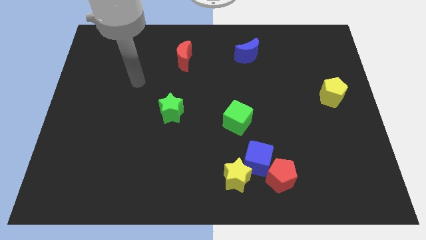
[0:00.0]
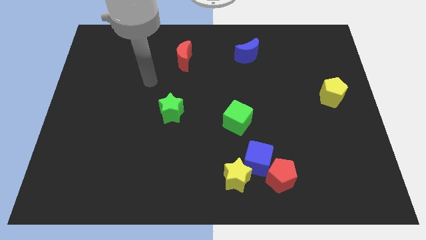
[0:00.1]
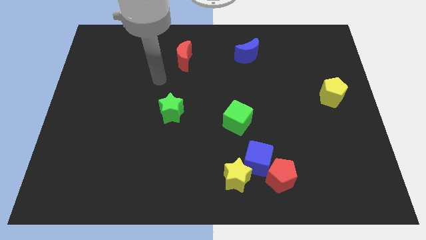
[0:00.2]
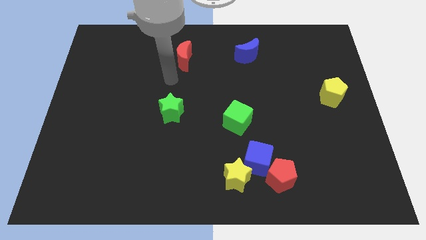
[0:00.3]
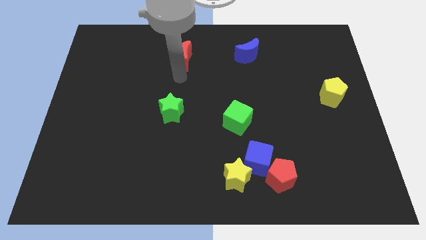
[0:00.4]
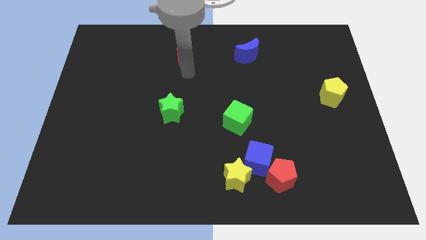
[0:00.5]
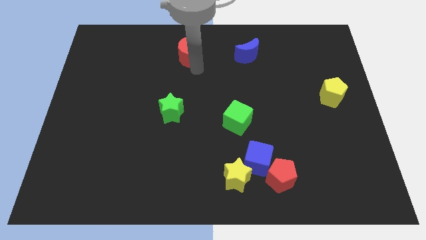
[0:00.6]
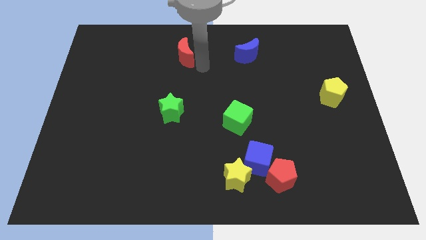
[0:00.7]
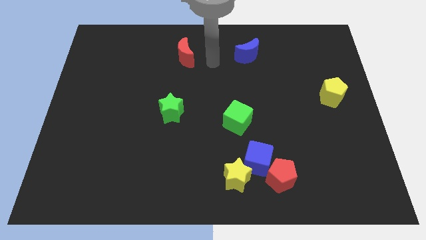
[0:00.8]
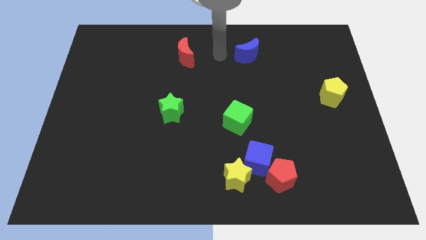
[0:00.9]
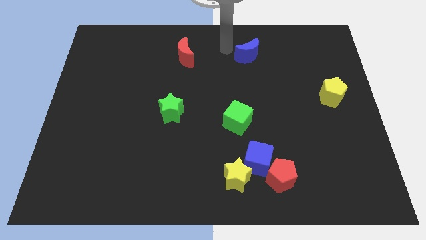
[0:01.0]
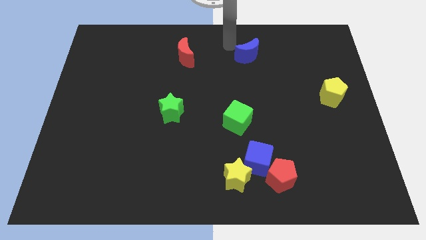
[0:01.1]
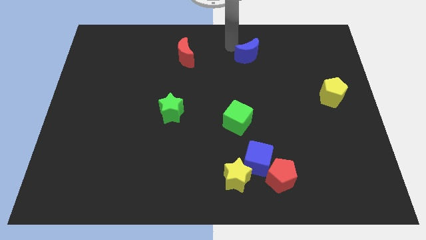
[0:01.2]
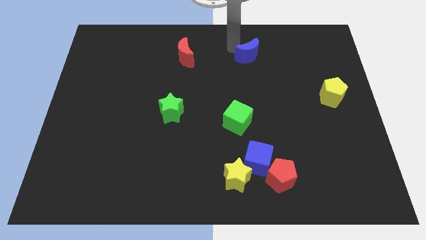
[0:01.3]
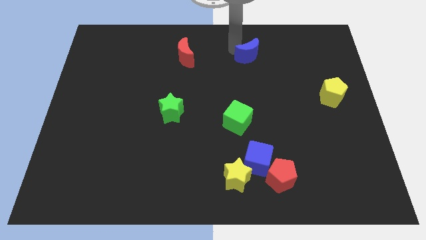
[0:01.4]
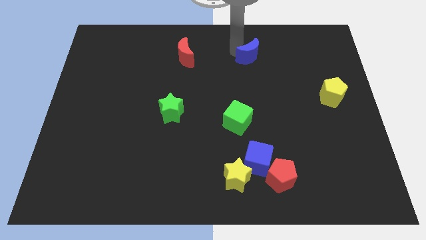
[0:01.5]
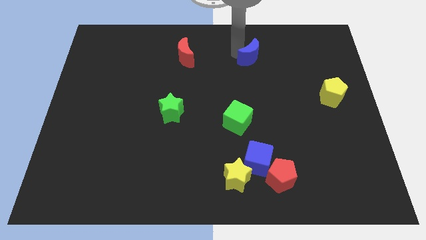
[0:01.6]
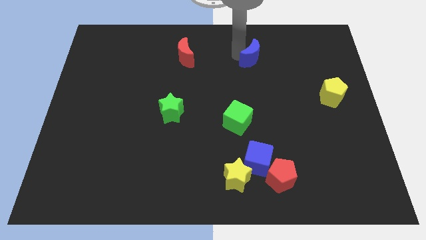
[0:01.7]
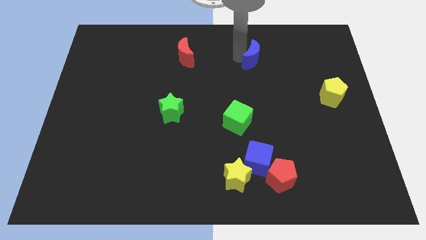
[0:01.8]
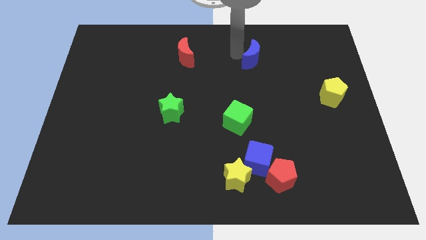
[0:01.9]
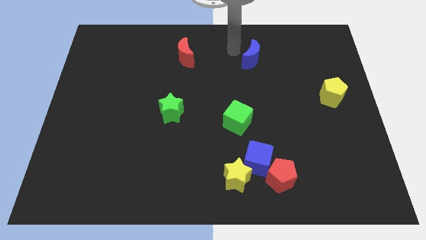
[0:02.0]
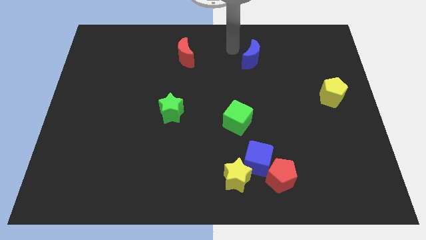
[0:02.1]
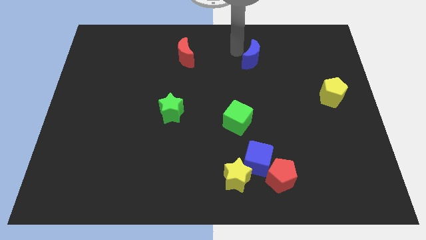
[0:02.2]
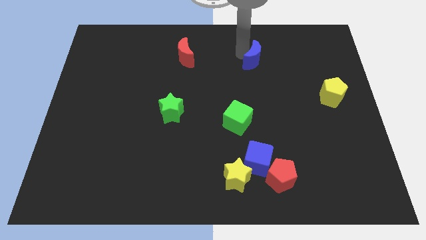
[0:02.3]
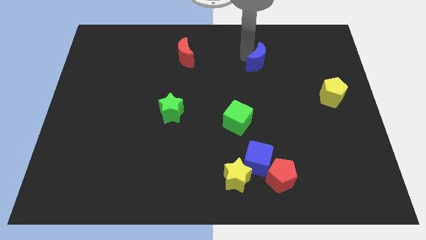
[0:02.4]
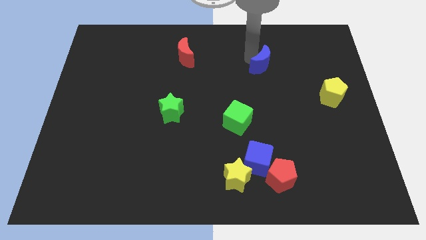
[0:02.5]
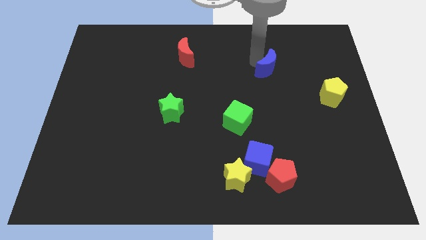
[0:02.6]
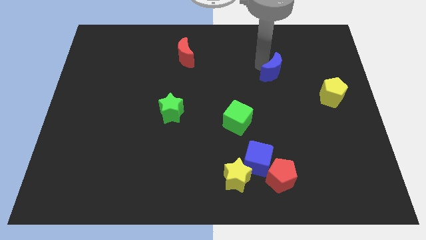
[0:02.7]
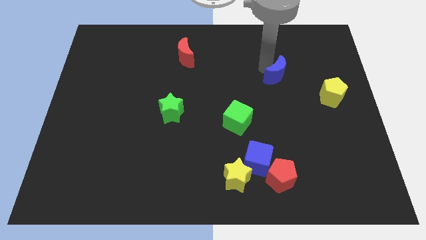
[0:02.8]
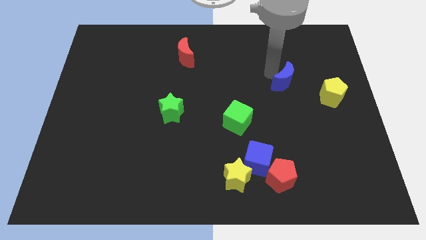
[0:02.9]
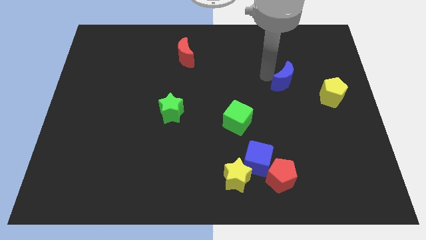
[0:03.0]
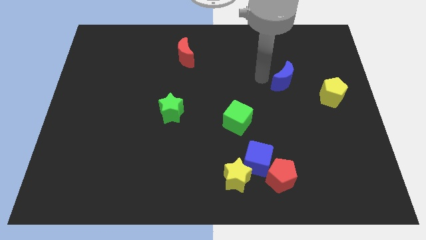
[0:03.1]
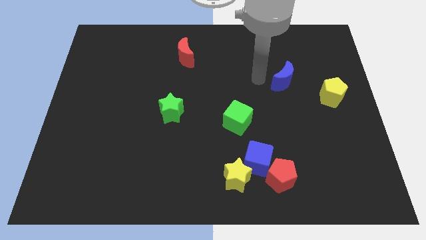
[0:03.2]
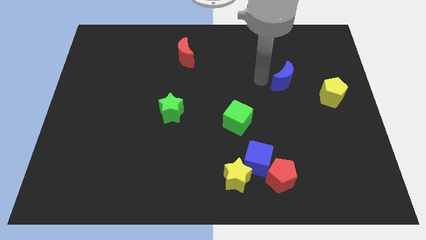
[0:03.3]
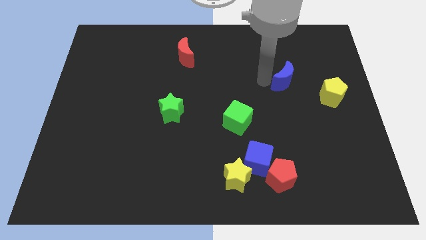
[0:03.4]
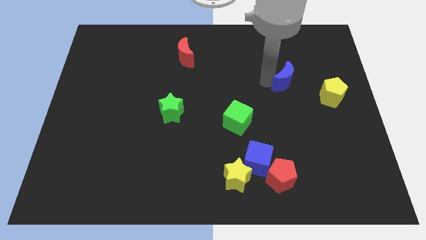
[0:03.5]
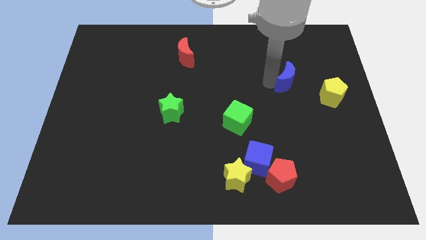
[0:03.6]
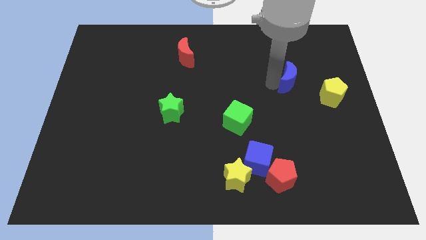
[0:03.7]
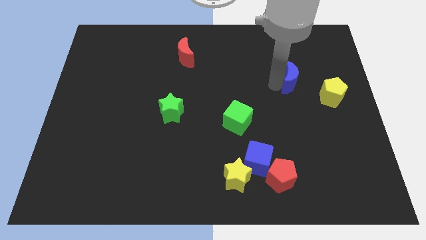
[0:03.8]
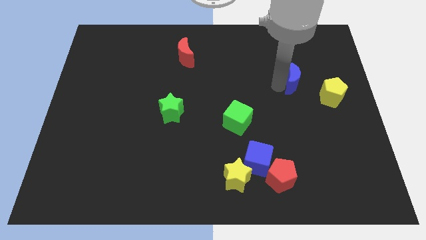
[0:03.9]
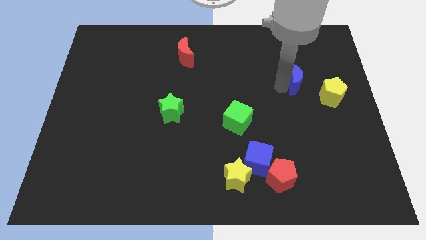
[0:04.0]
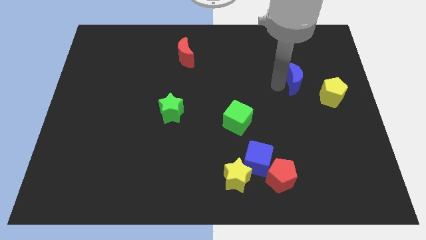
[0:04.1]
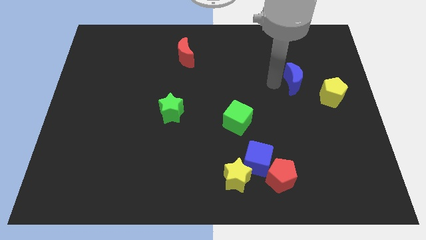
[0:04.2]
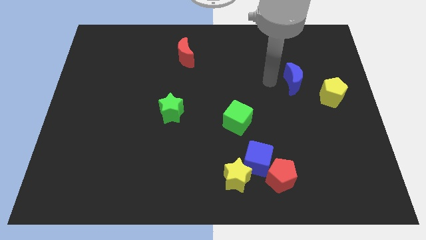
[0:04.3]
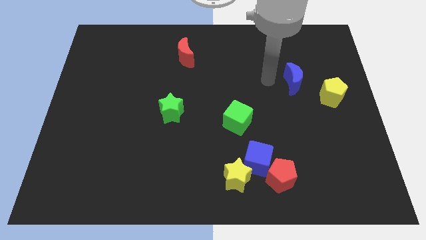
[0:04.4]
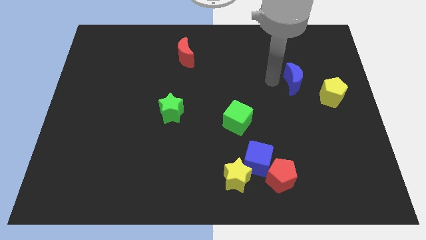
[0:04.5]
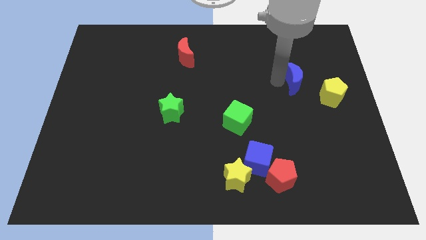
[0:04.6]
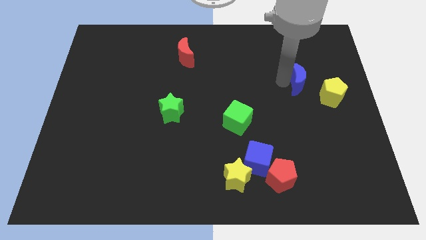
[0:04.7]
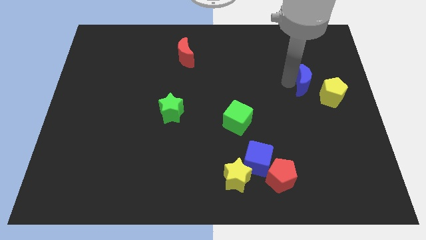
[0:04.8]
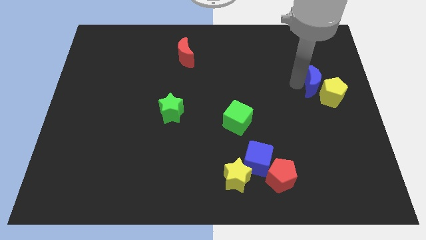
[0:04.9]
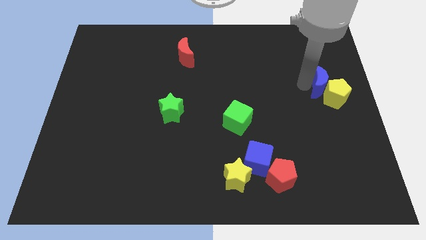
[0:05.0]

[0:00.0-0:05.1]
slide the blue moon to the right side

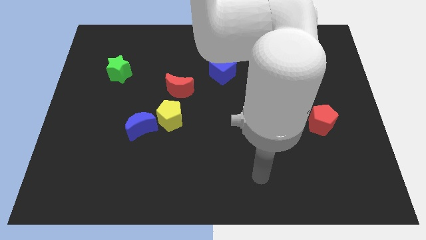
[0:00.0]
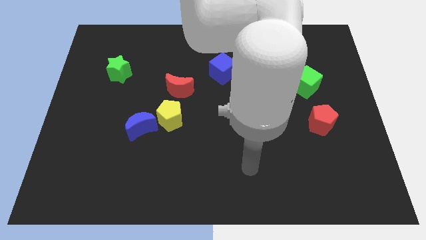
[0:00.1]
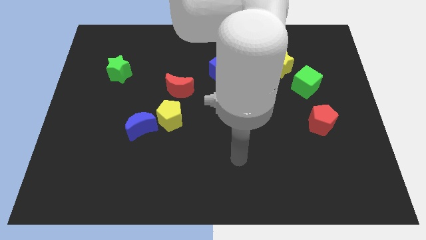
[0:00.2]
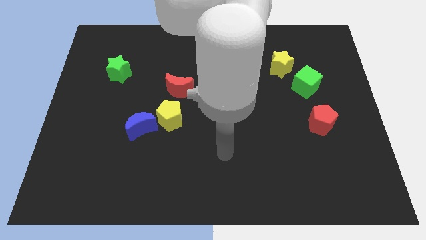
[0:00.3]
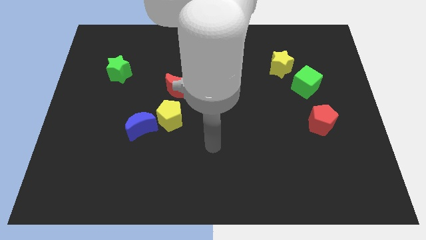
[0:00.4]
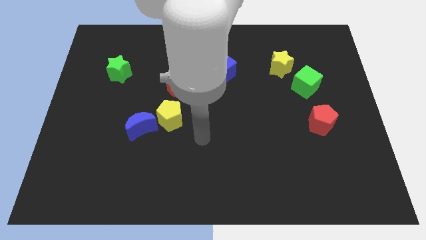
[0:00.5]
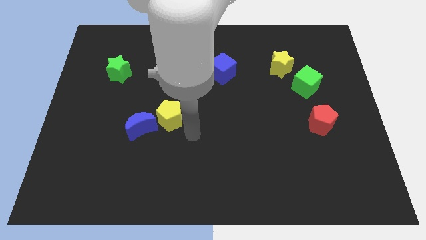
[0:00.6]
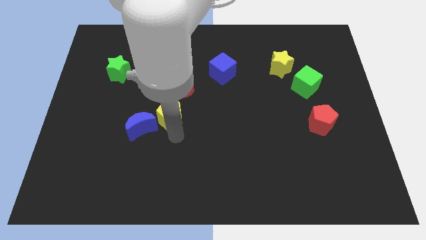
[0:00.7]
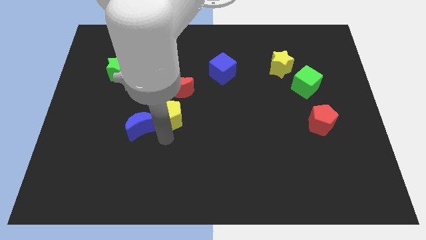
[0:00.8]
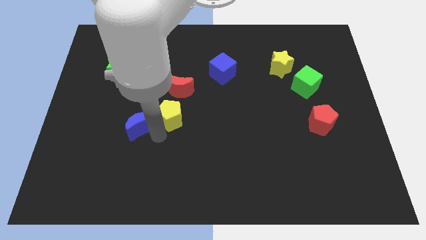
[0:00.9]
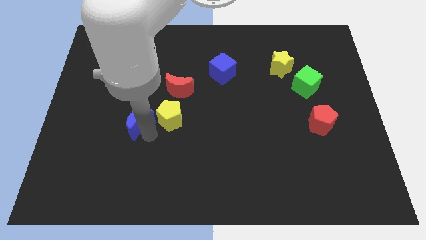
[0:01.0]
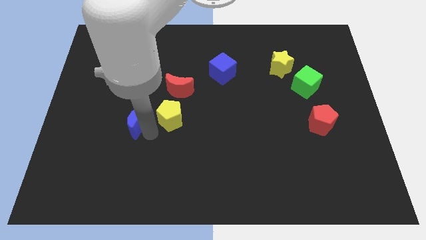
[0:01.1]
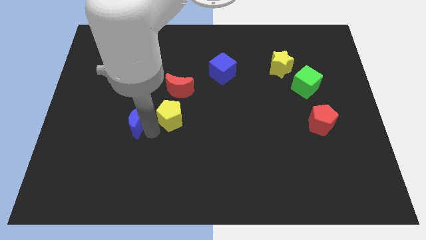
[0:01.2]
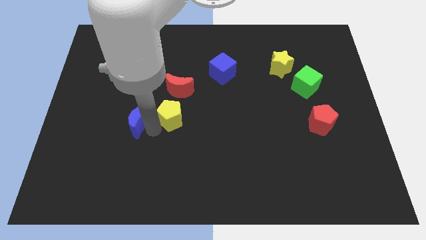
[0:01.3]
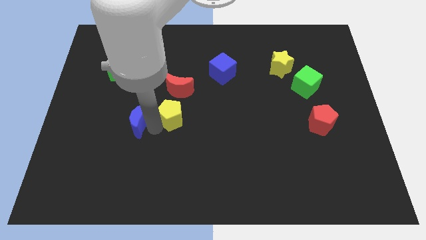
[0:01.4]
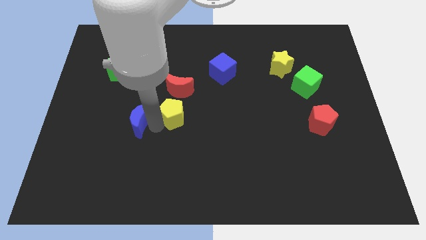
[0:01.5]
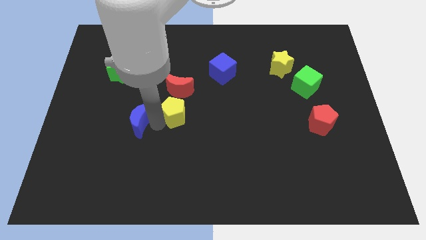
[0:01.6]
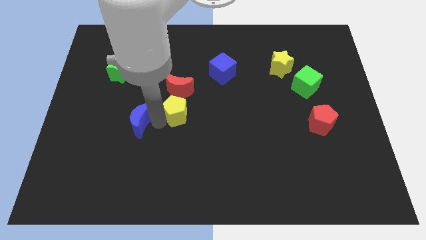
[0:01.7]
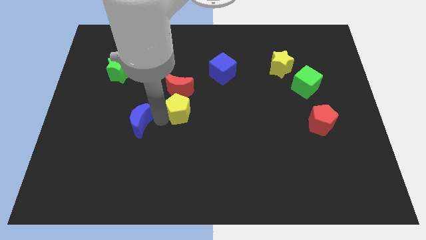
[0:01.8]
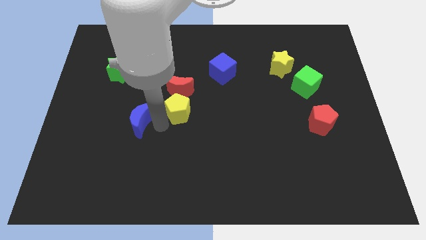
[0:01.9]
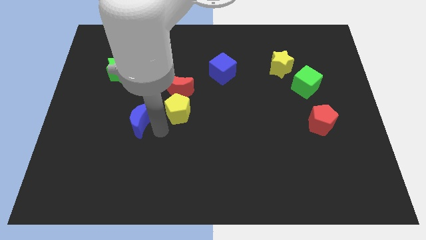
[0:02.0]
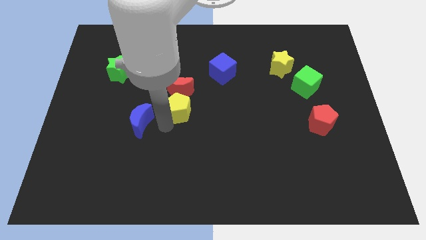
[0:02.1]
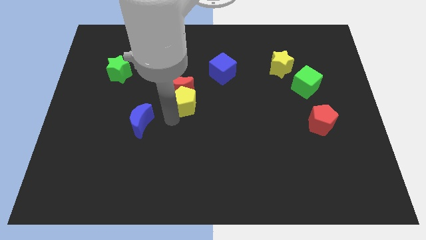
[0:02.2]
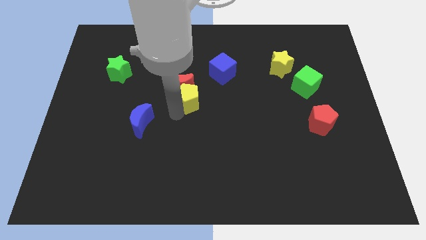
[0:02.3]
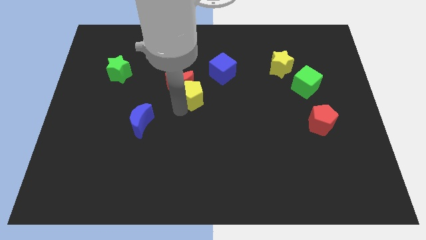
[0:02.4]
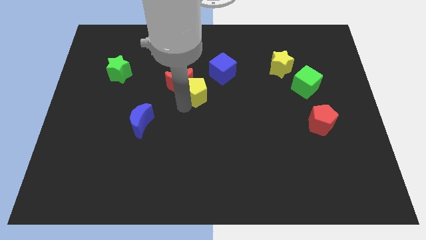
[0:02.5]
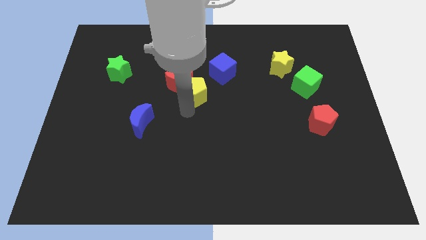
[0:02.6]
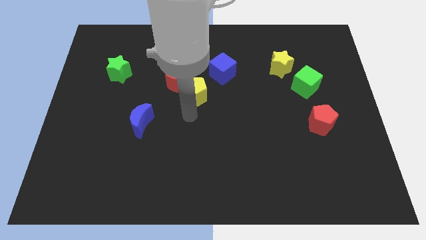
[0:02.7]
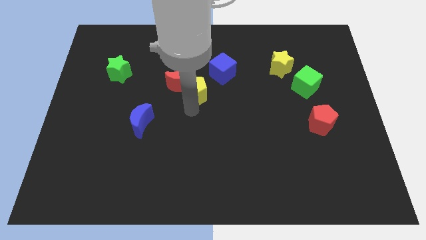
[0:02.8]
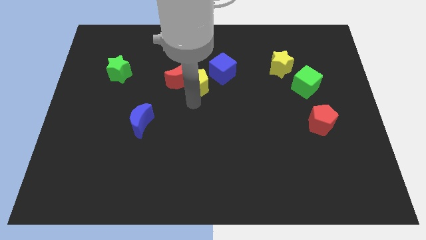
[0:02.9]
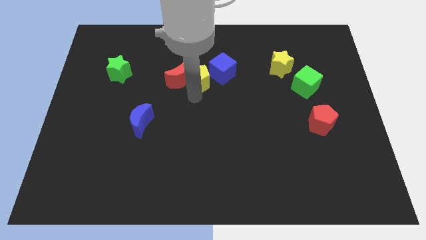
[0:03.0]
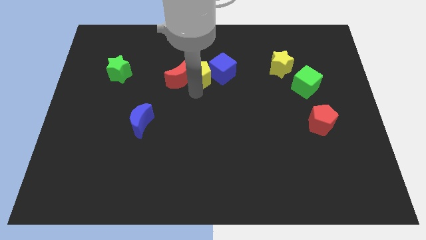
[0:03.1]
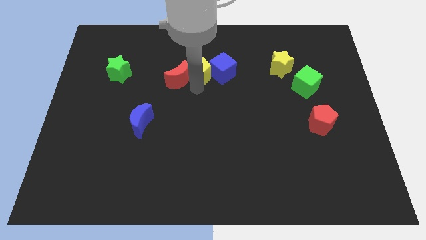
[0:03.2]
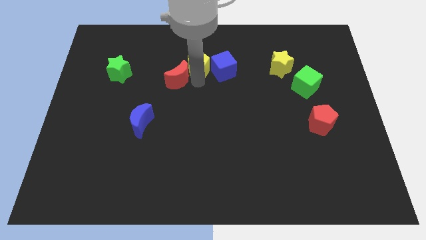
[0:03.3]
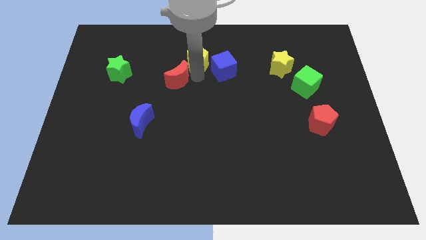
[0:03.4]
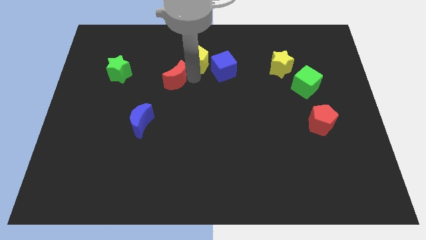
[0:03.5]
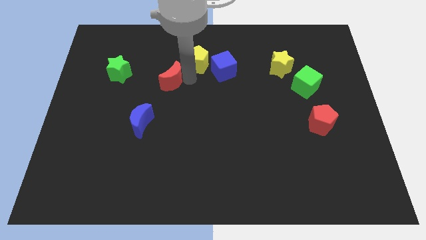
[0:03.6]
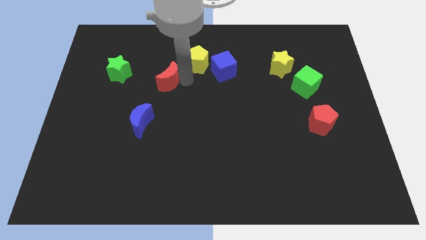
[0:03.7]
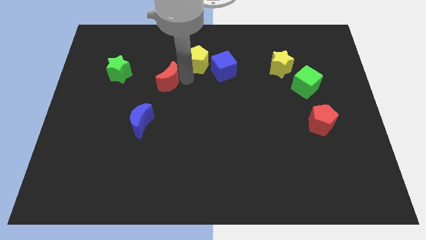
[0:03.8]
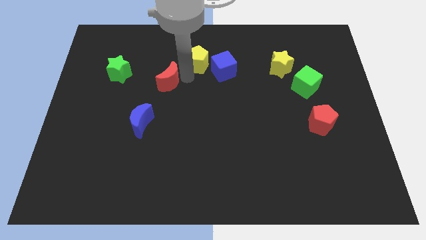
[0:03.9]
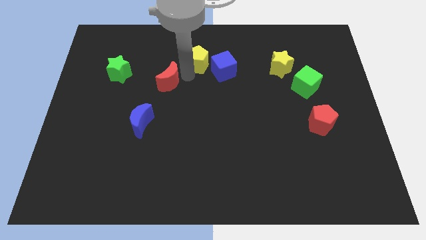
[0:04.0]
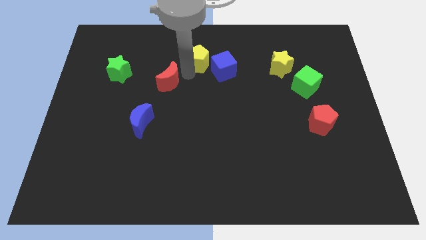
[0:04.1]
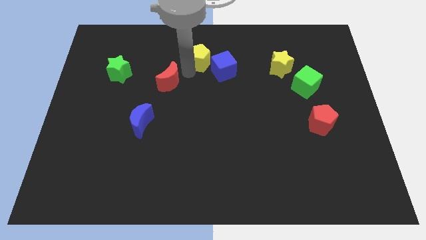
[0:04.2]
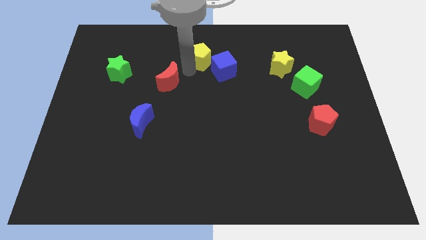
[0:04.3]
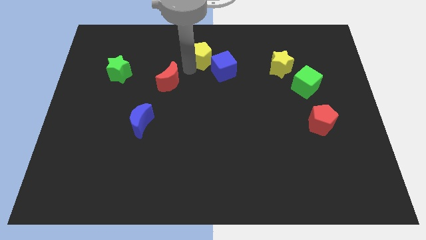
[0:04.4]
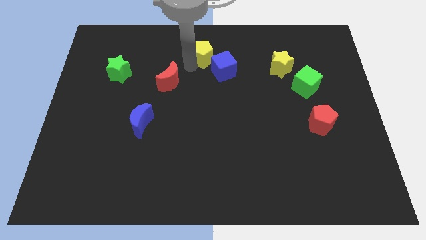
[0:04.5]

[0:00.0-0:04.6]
push the yellow pentagon to the top
